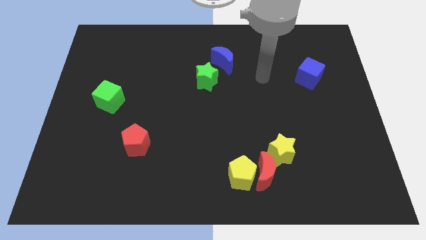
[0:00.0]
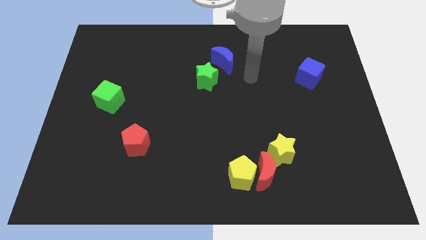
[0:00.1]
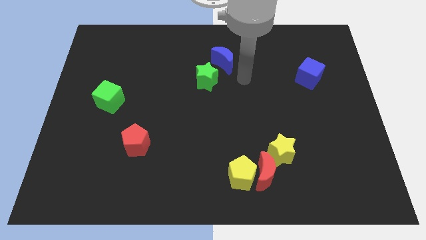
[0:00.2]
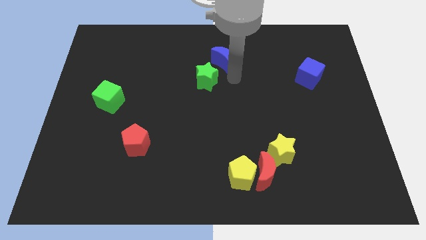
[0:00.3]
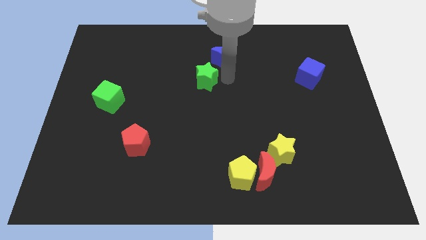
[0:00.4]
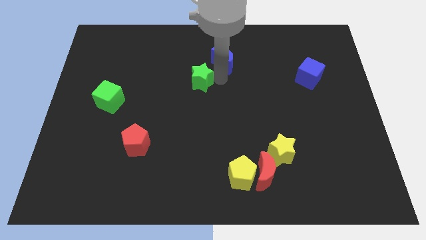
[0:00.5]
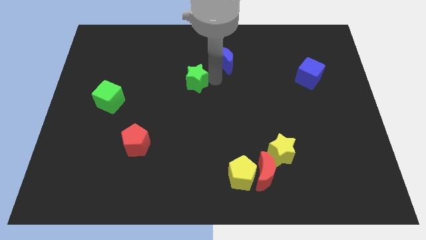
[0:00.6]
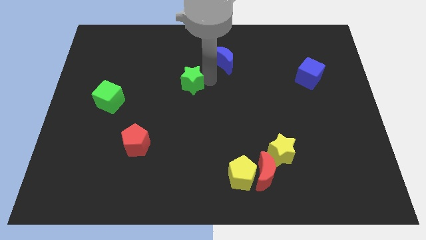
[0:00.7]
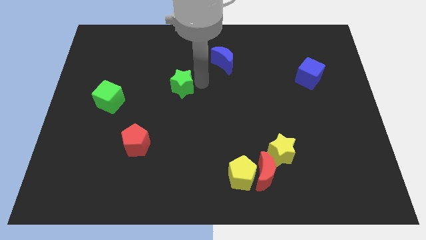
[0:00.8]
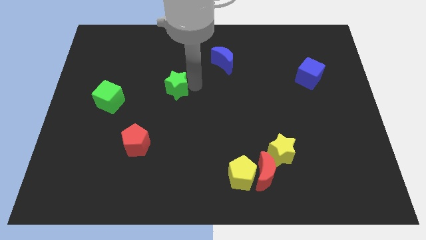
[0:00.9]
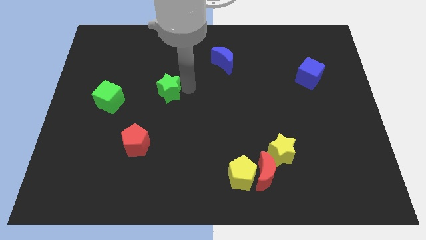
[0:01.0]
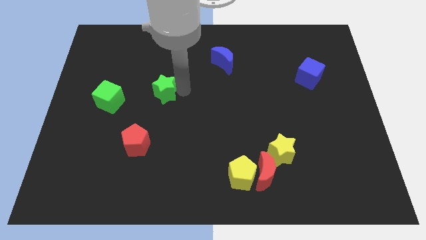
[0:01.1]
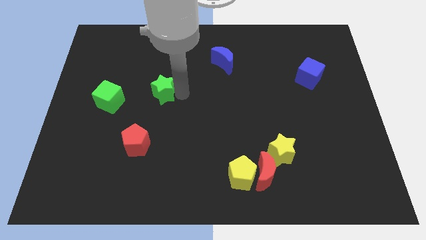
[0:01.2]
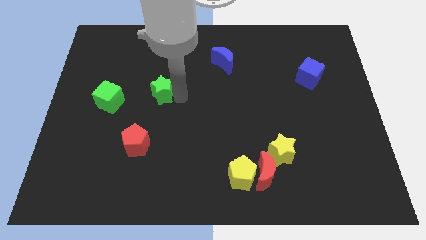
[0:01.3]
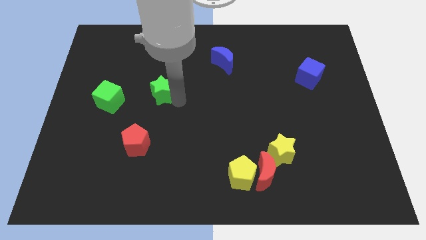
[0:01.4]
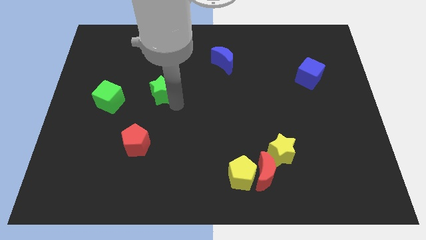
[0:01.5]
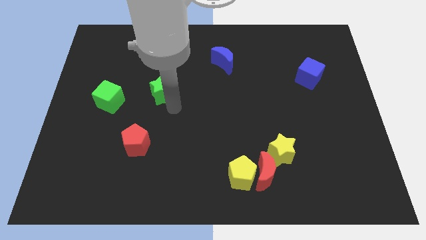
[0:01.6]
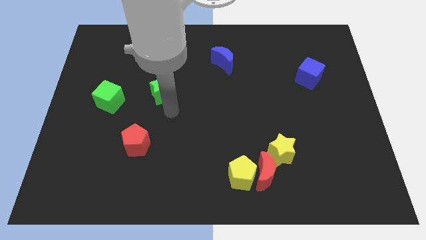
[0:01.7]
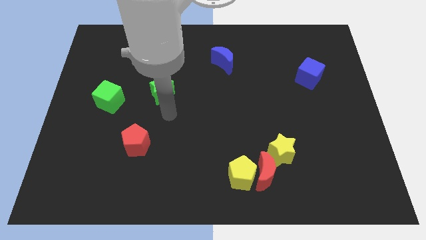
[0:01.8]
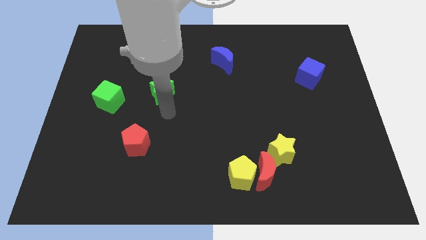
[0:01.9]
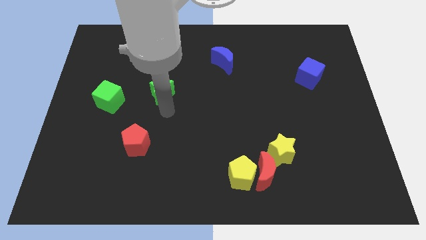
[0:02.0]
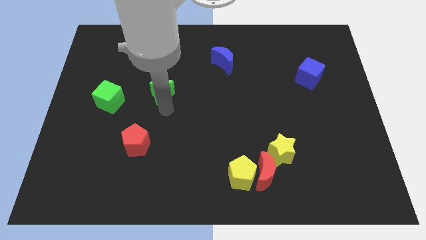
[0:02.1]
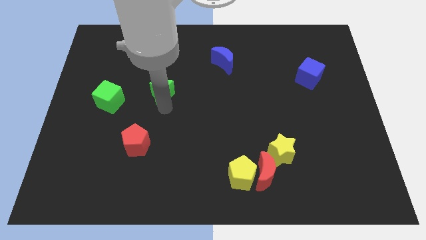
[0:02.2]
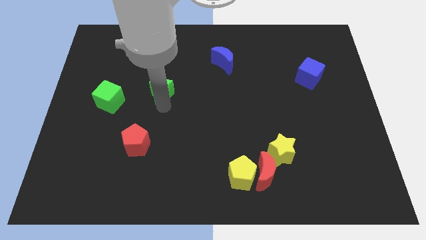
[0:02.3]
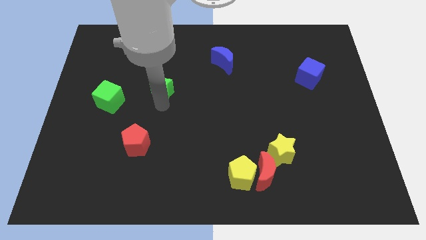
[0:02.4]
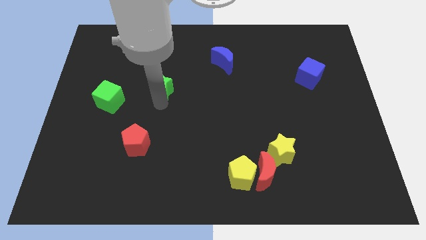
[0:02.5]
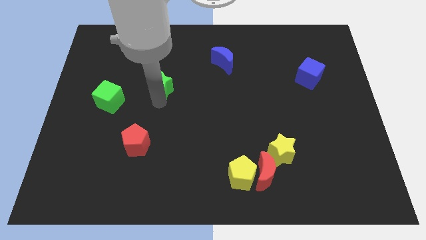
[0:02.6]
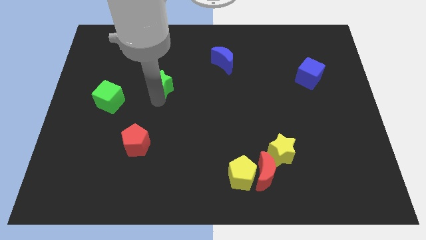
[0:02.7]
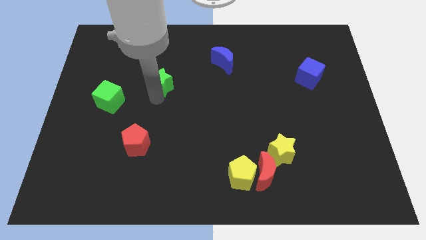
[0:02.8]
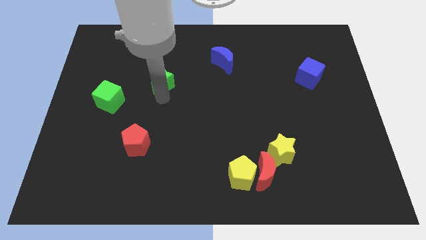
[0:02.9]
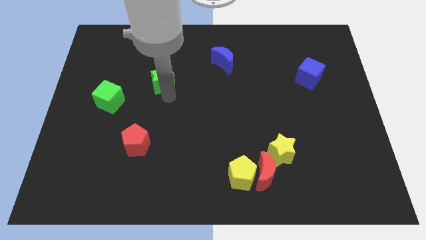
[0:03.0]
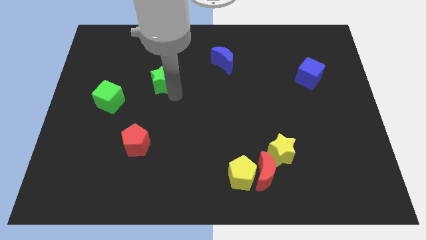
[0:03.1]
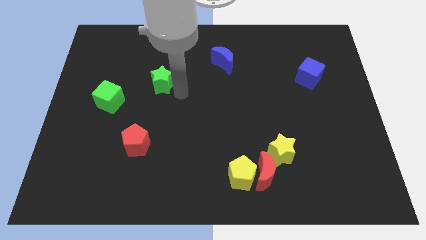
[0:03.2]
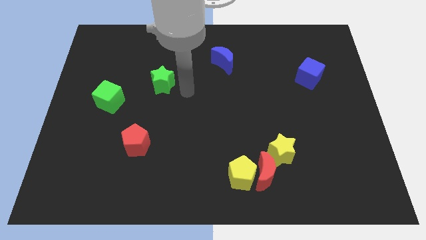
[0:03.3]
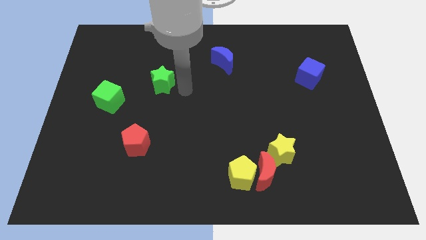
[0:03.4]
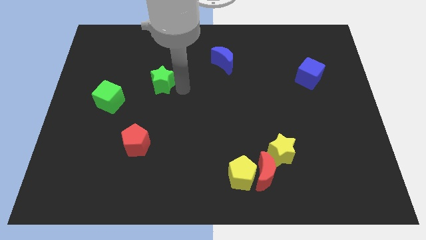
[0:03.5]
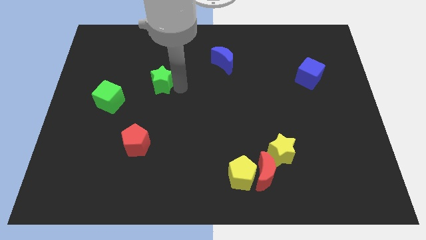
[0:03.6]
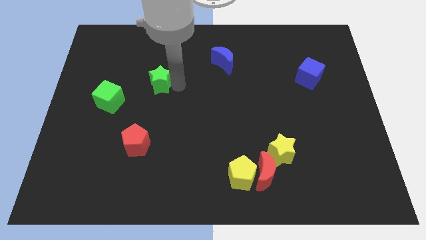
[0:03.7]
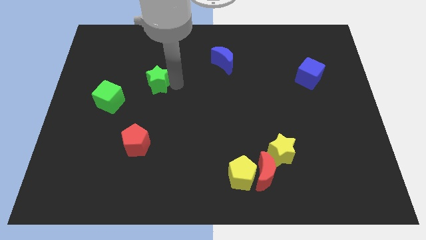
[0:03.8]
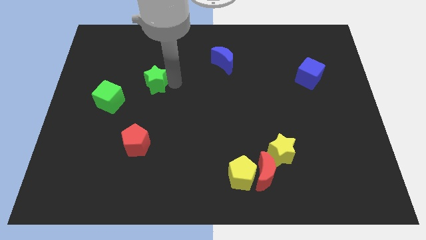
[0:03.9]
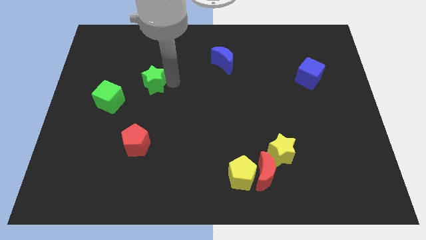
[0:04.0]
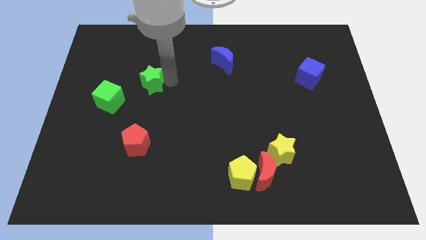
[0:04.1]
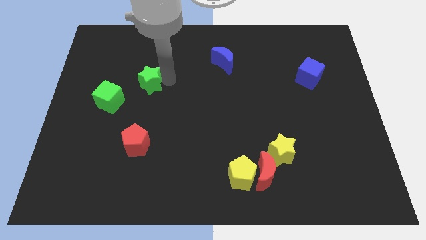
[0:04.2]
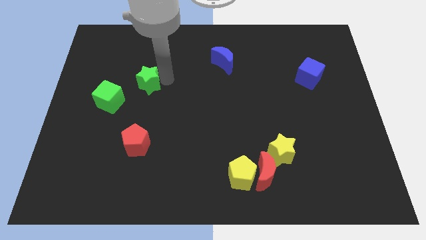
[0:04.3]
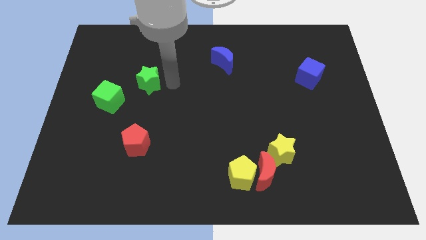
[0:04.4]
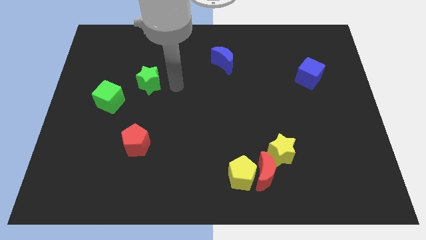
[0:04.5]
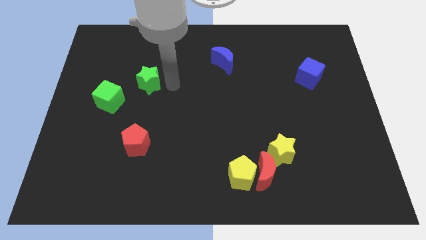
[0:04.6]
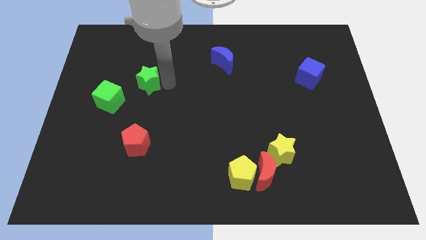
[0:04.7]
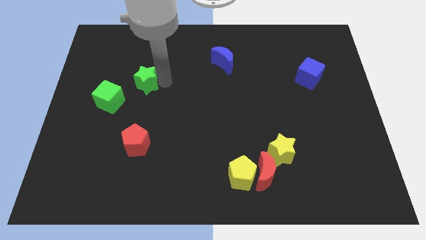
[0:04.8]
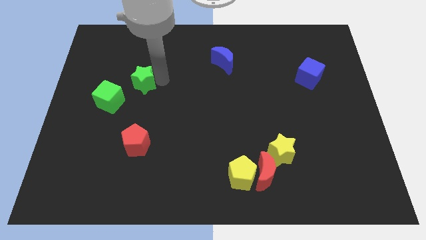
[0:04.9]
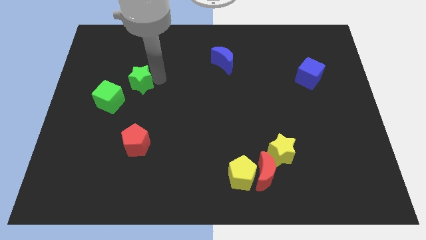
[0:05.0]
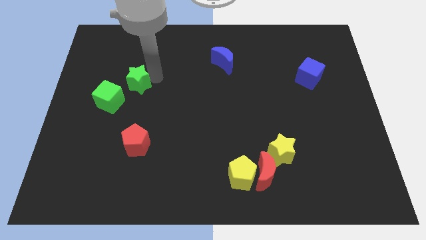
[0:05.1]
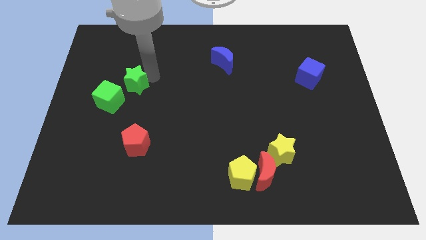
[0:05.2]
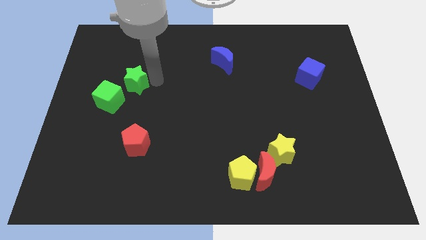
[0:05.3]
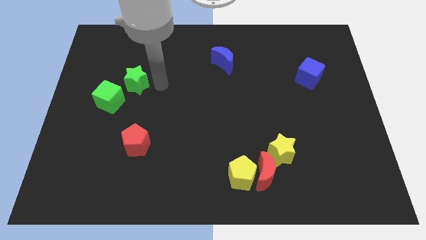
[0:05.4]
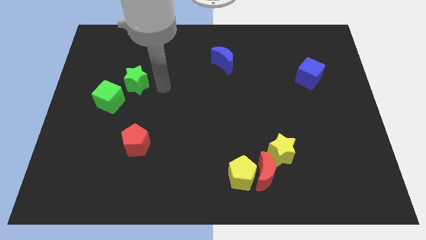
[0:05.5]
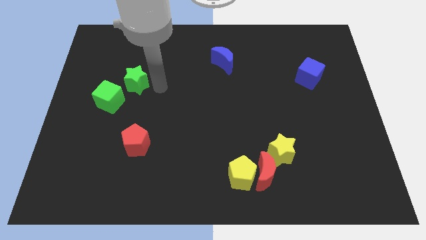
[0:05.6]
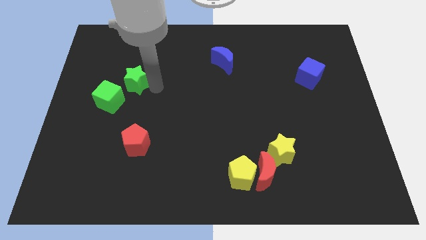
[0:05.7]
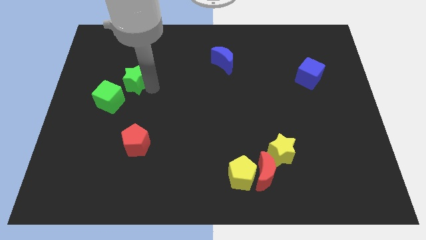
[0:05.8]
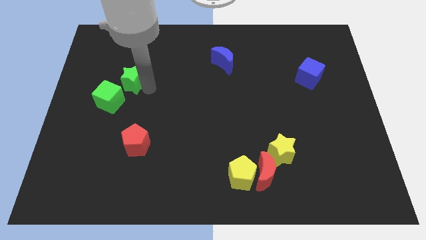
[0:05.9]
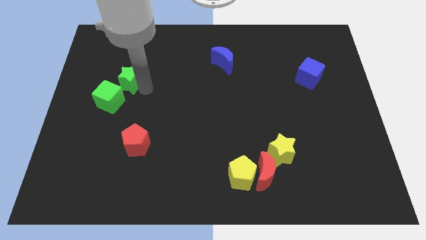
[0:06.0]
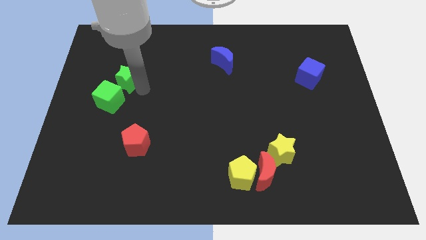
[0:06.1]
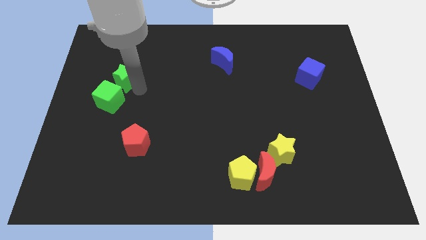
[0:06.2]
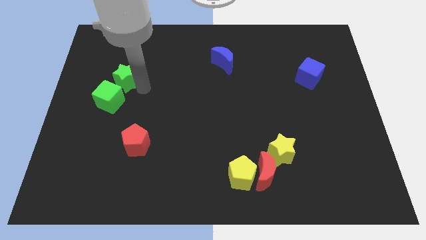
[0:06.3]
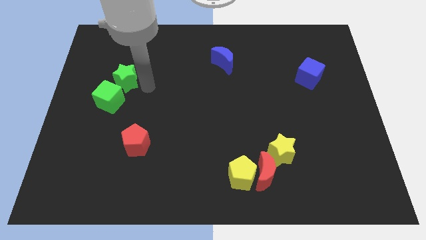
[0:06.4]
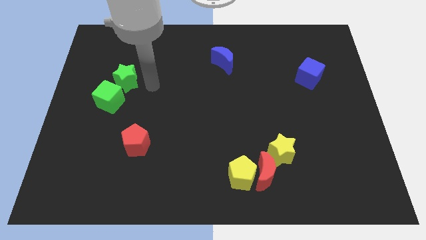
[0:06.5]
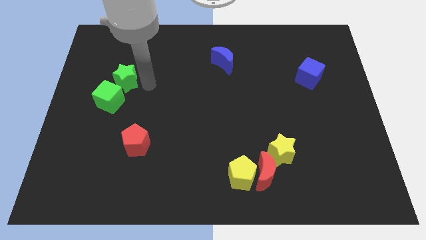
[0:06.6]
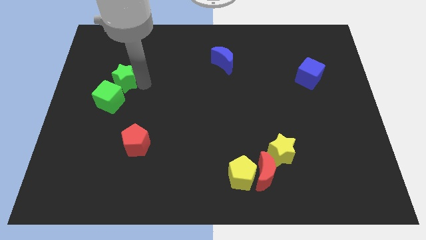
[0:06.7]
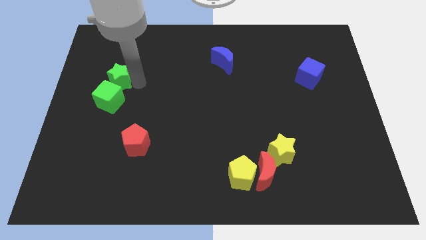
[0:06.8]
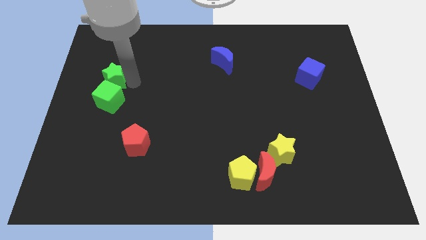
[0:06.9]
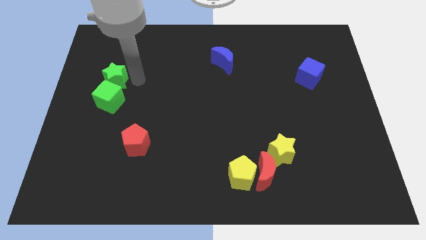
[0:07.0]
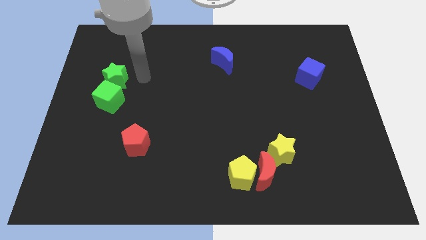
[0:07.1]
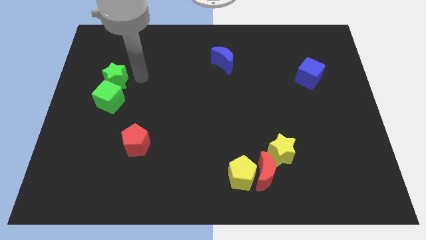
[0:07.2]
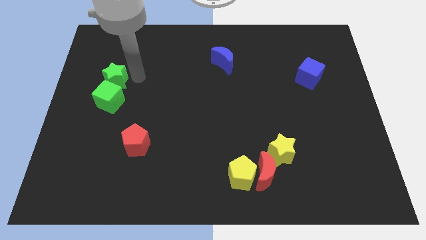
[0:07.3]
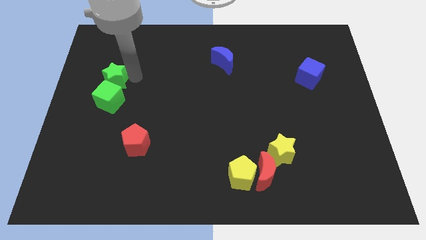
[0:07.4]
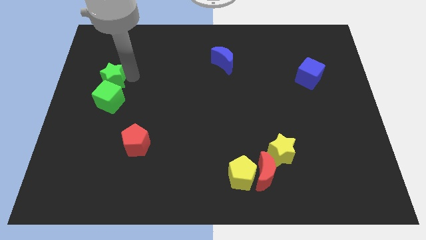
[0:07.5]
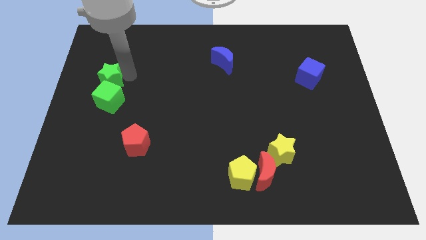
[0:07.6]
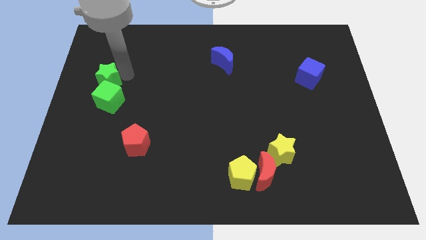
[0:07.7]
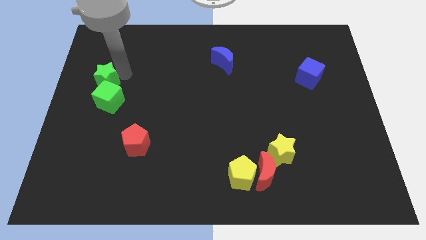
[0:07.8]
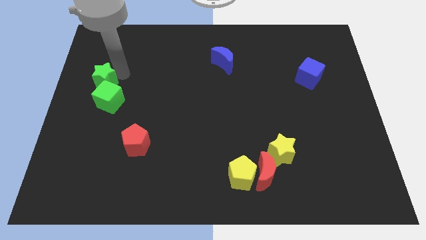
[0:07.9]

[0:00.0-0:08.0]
slide the green star to the left side of the board
